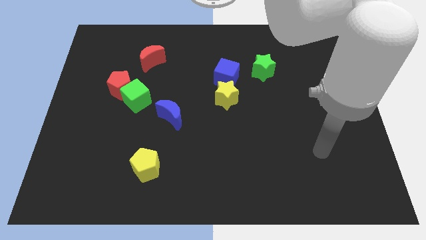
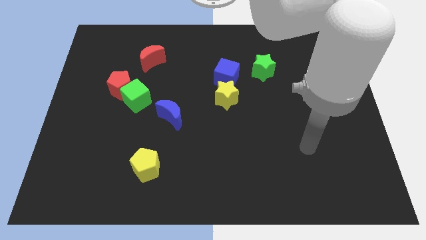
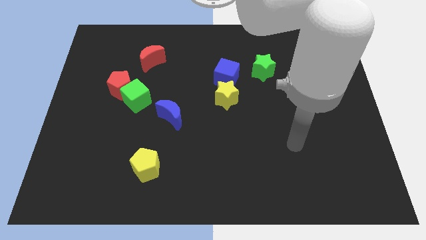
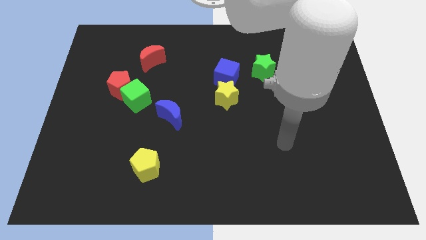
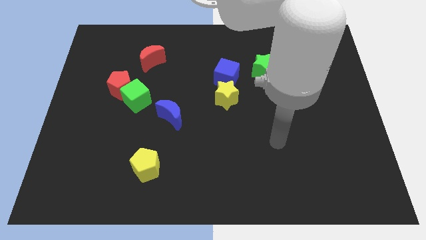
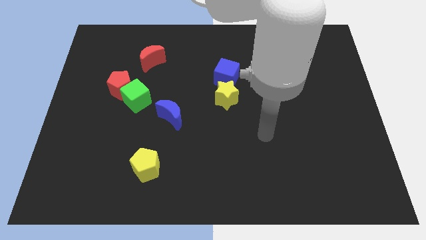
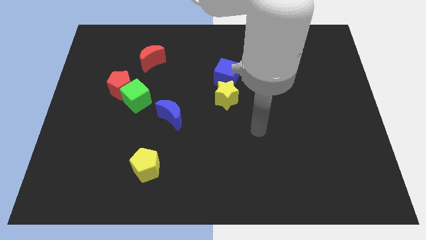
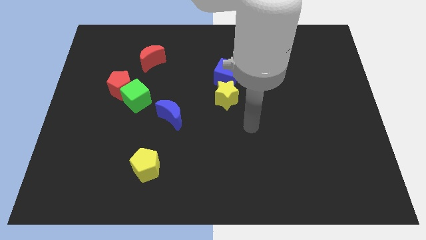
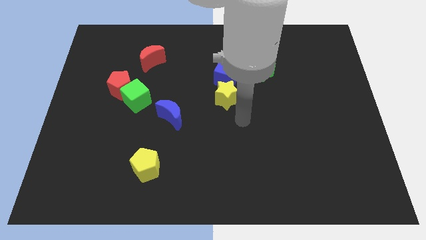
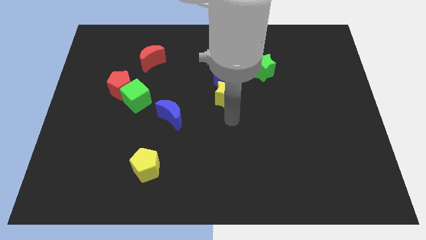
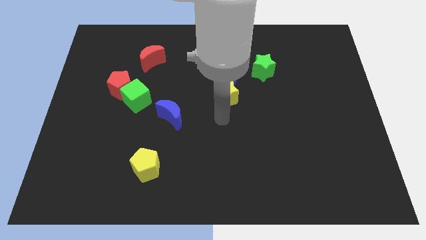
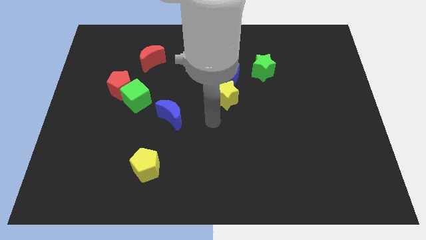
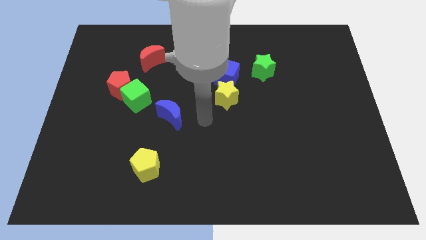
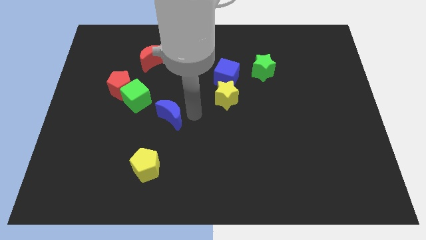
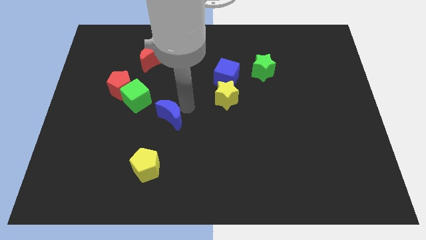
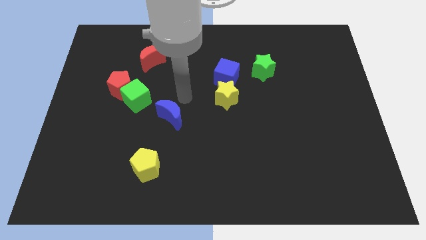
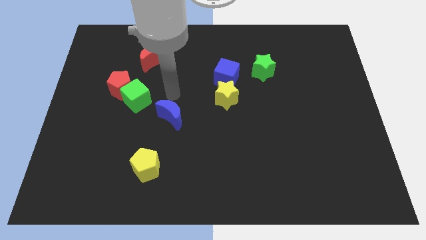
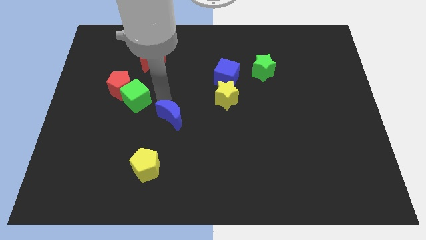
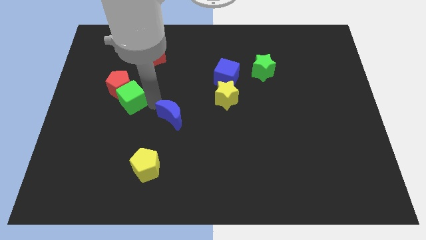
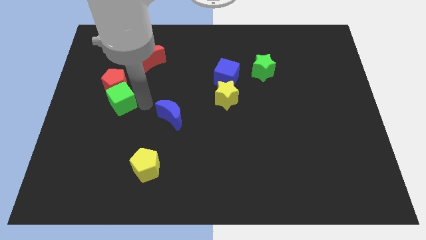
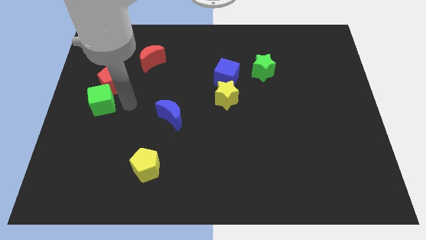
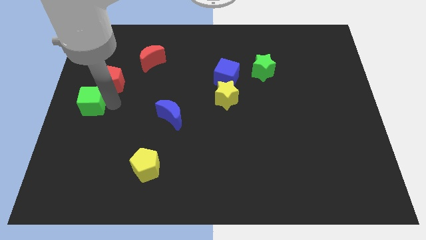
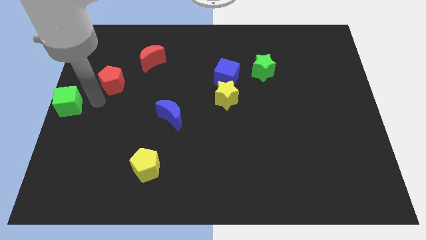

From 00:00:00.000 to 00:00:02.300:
move the red pentagon away from the green cube

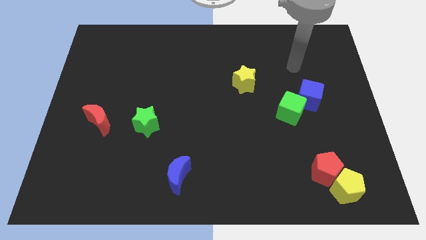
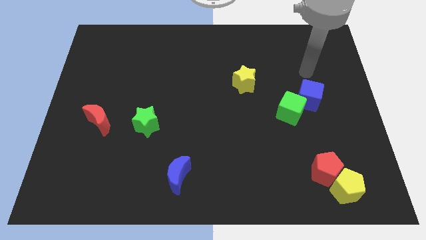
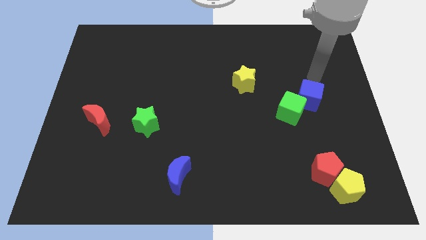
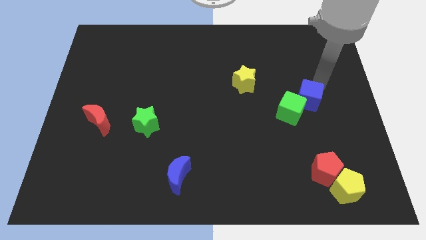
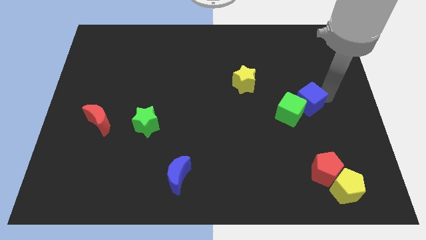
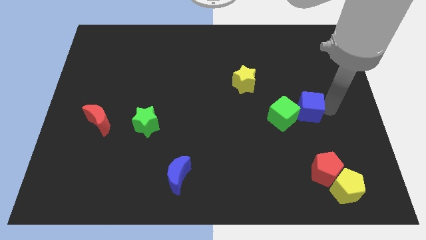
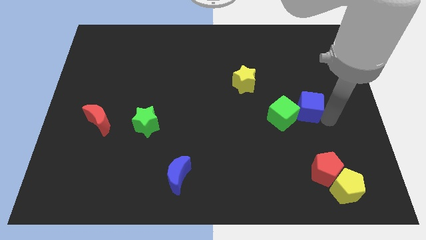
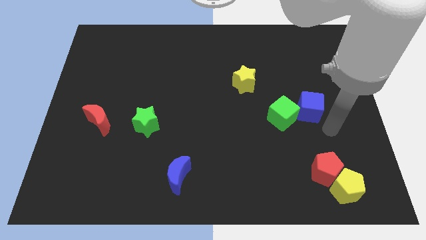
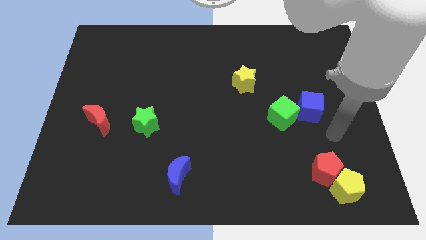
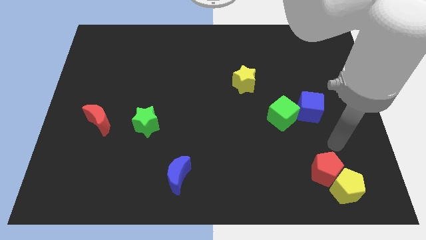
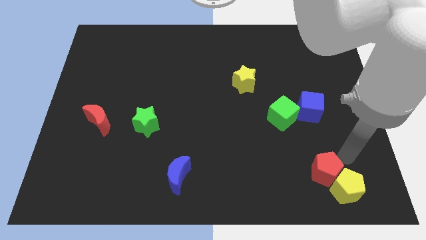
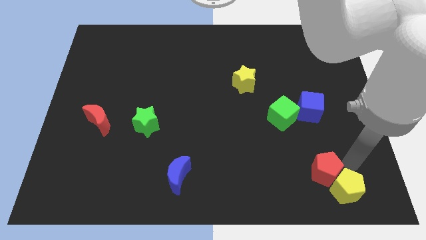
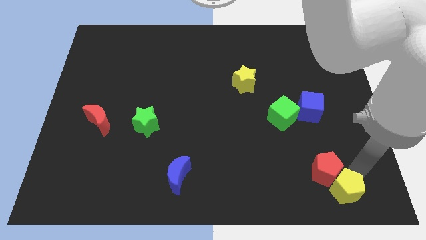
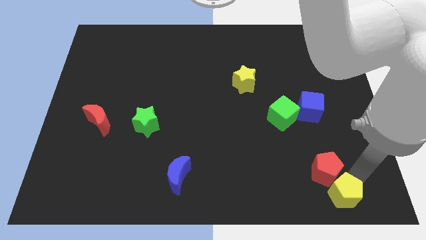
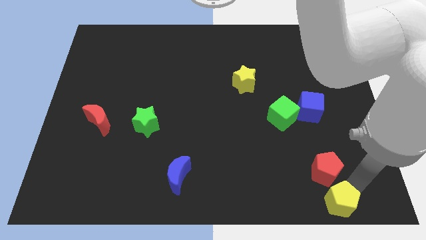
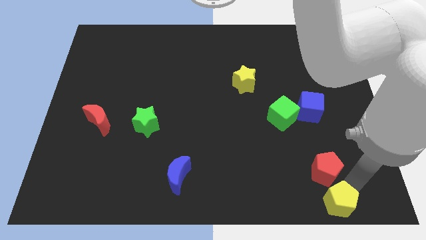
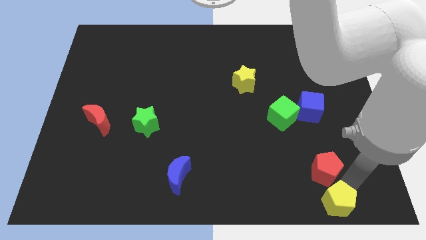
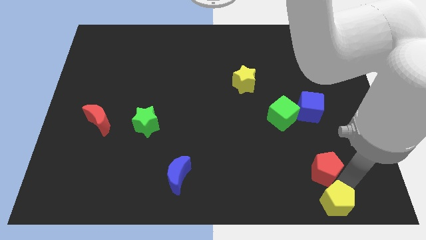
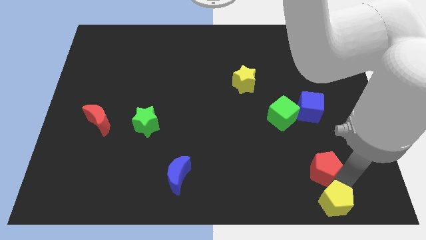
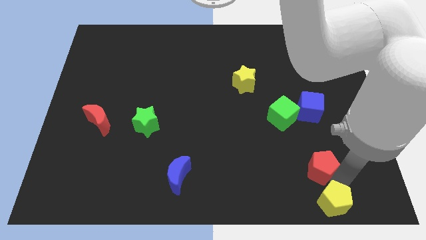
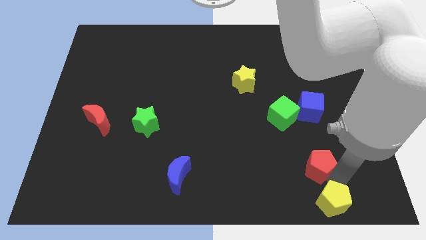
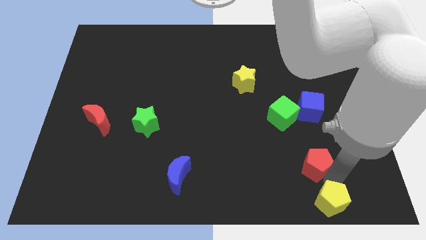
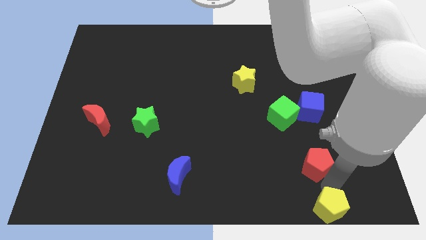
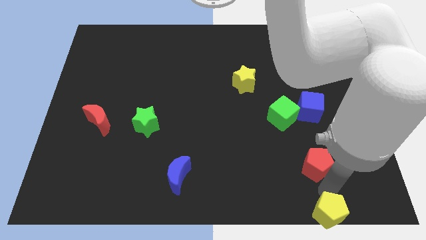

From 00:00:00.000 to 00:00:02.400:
move the red pentagon away from the yellow pentagon

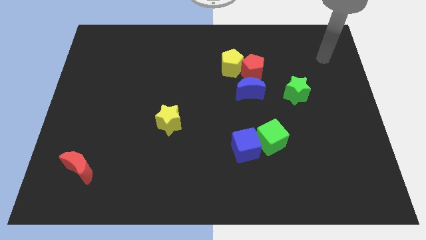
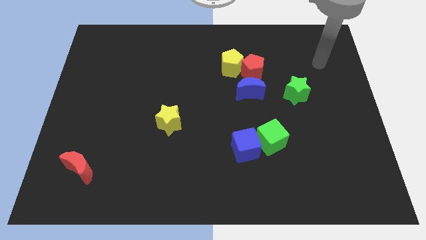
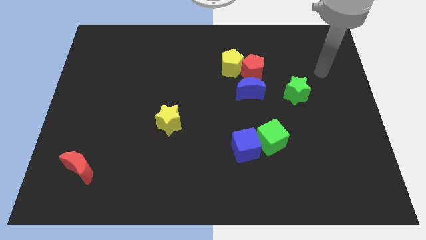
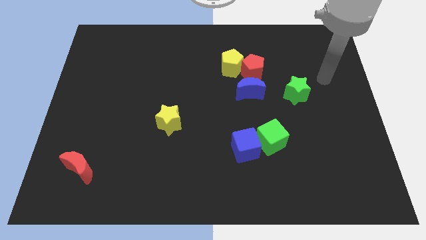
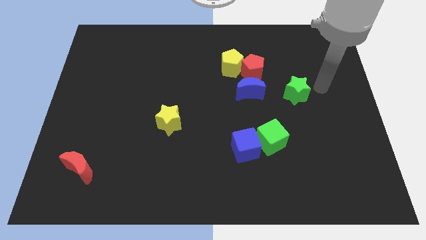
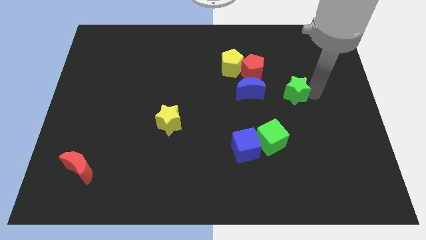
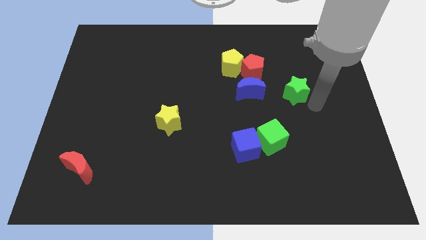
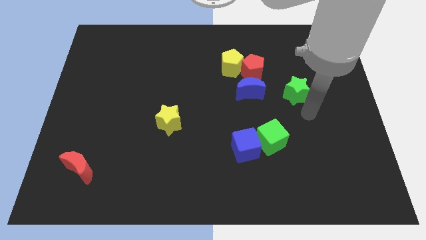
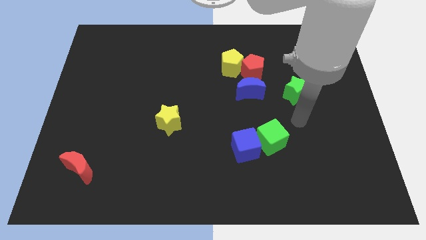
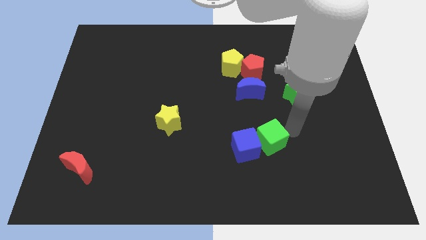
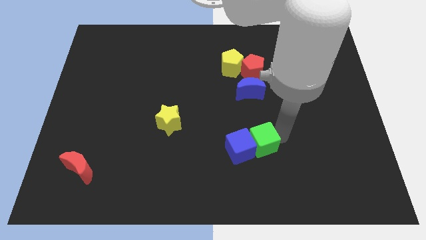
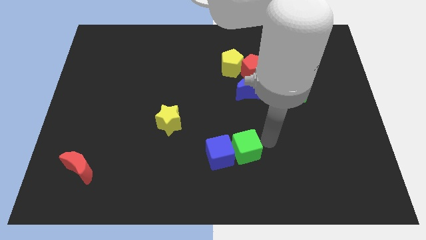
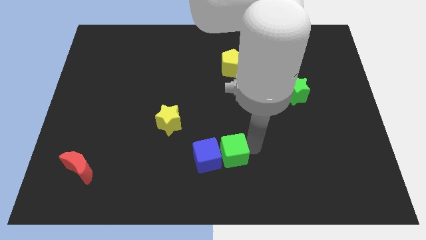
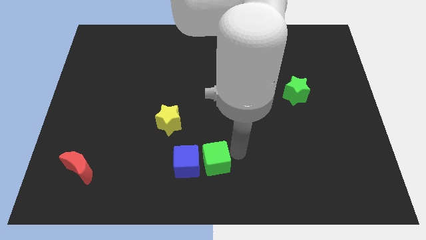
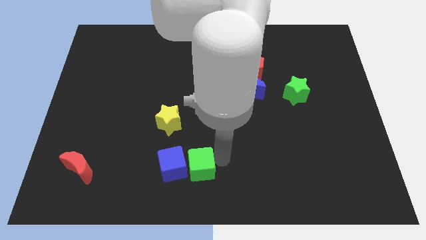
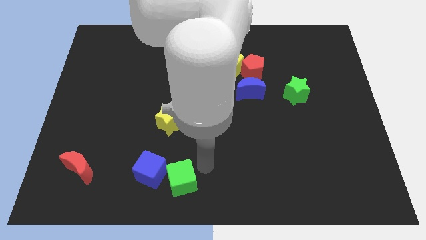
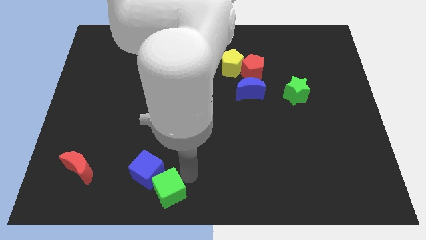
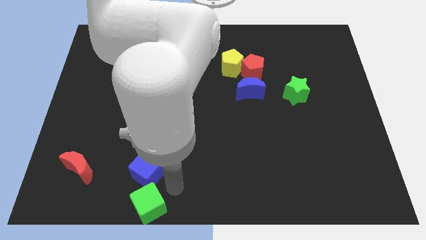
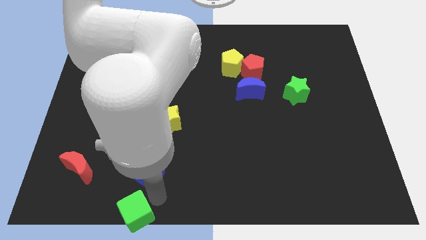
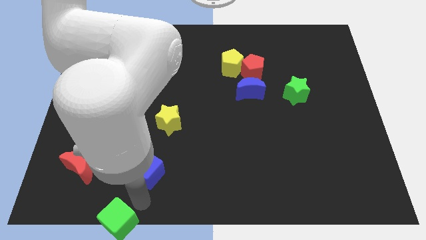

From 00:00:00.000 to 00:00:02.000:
move the blue cube away from the green cube

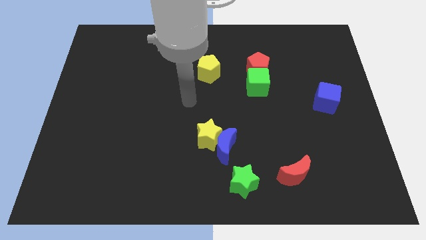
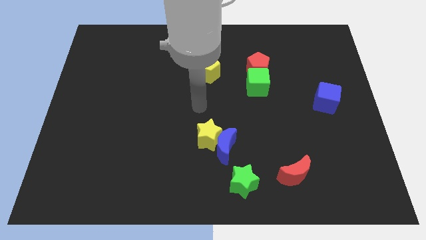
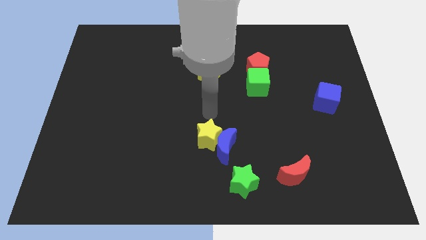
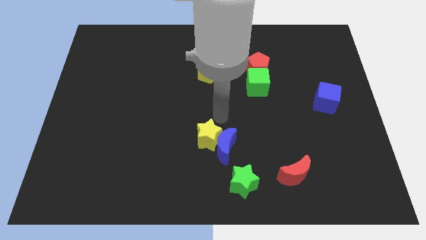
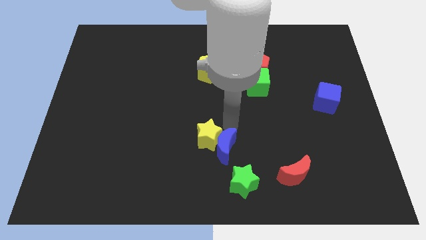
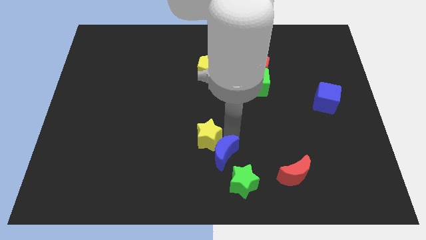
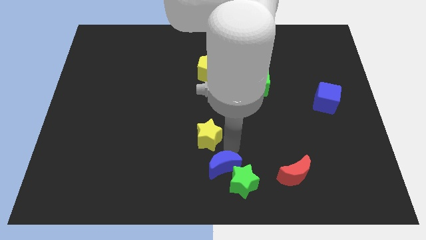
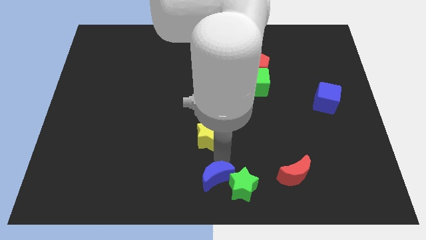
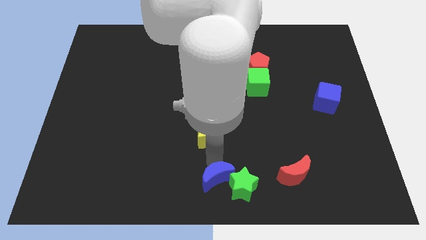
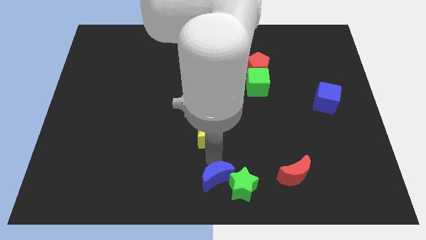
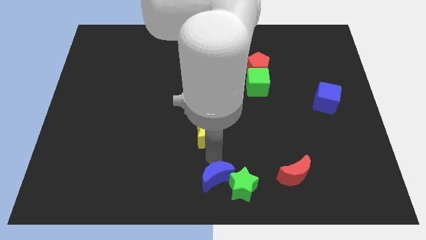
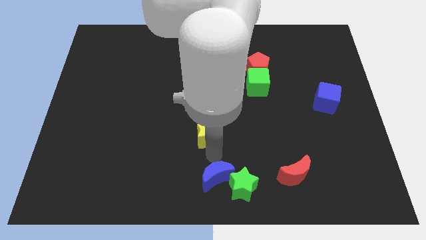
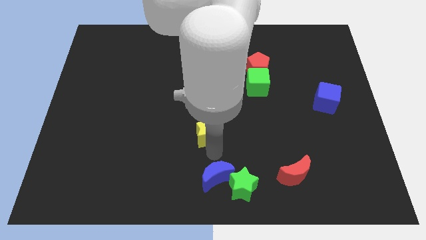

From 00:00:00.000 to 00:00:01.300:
move the yellow star away from the blue moon

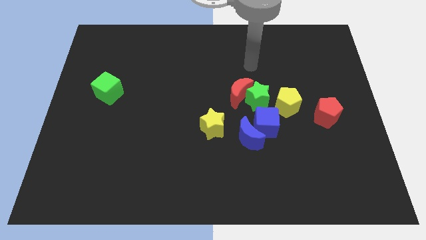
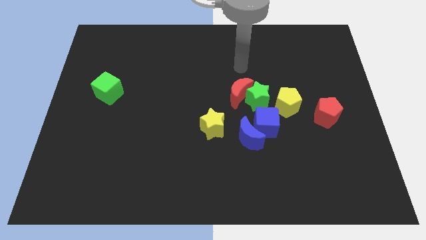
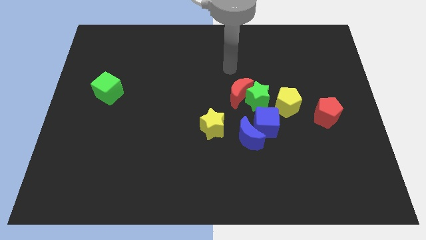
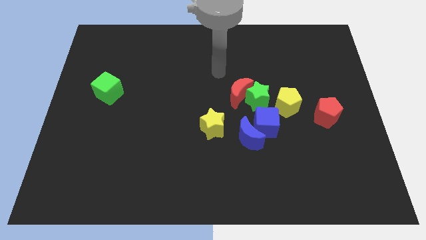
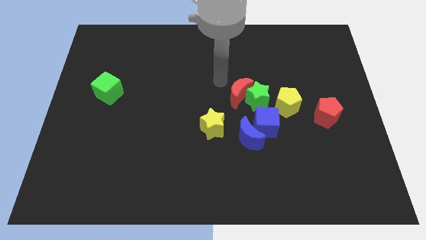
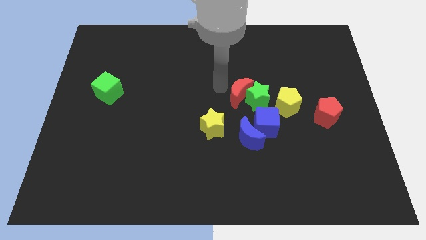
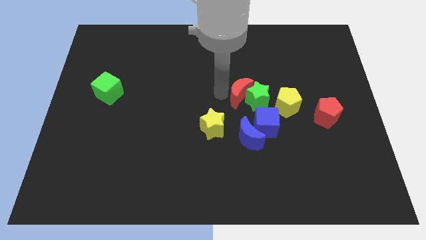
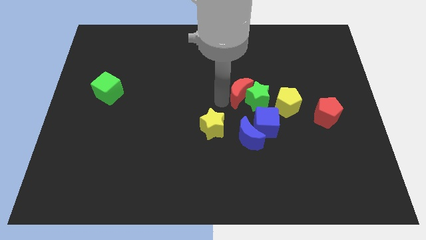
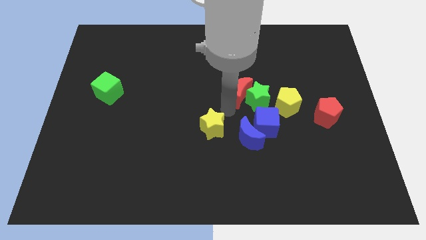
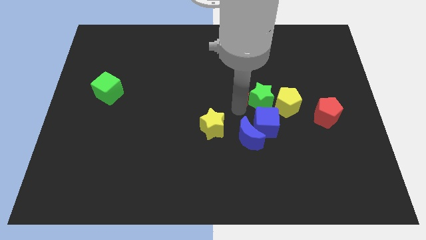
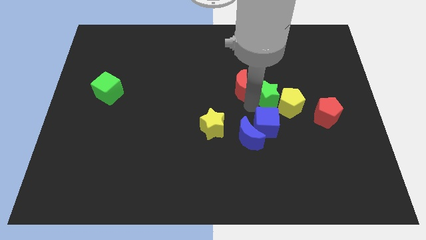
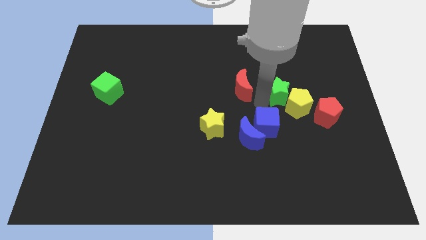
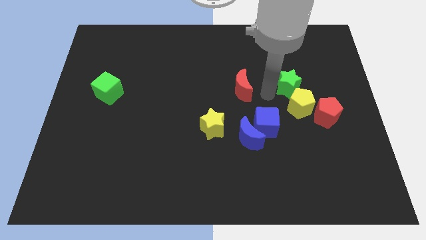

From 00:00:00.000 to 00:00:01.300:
separate the red moon from the green star
